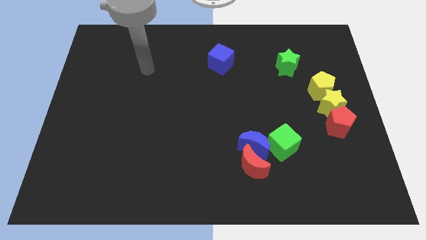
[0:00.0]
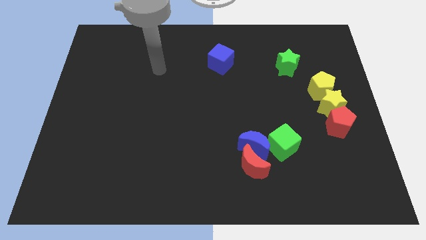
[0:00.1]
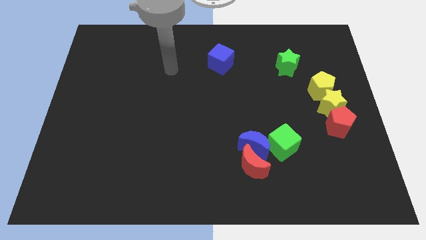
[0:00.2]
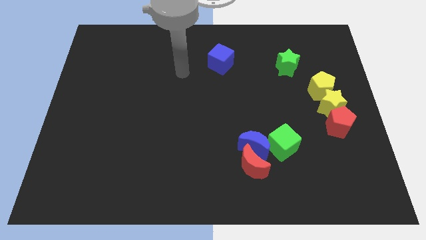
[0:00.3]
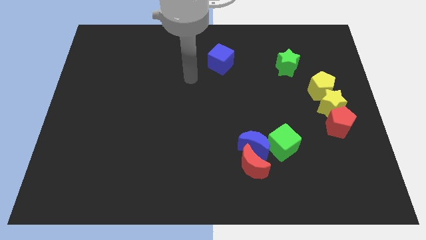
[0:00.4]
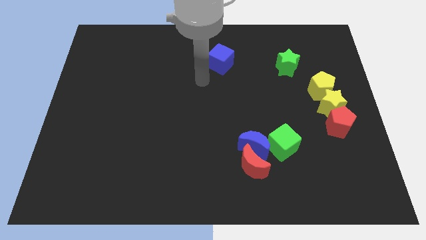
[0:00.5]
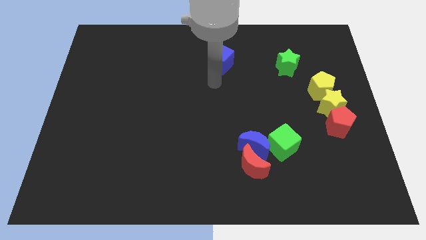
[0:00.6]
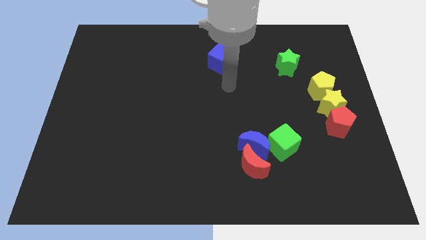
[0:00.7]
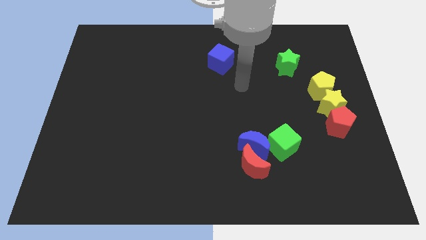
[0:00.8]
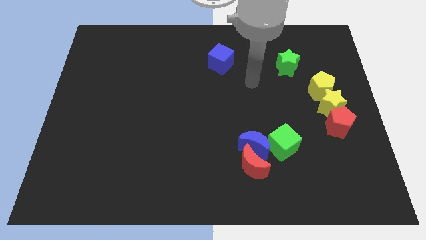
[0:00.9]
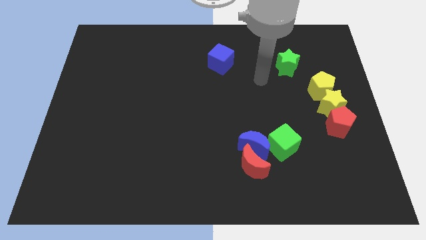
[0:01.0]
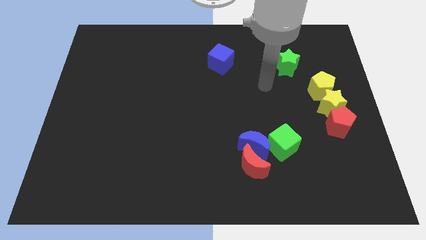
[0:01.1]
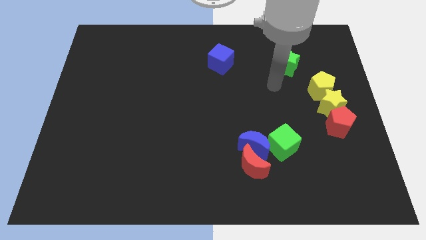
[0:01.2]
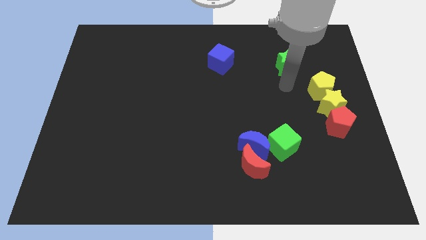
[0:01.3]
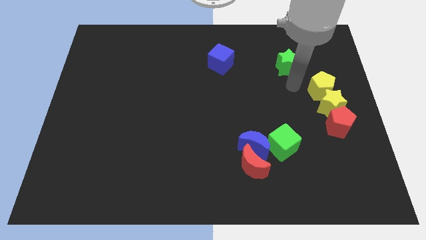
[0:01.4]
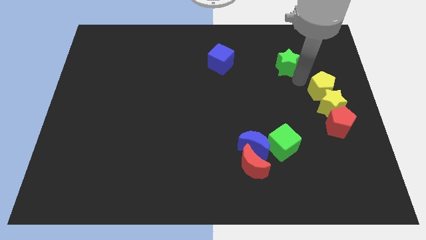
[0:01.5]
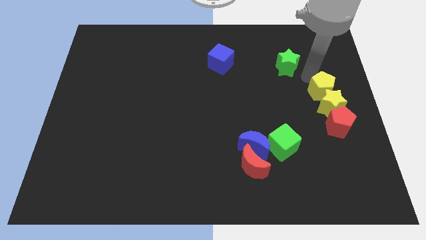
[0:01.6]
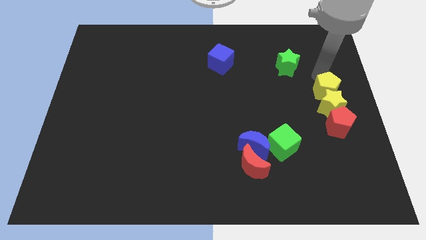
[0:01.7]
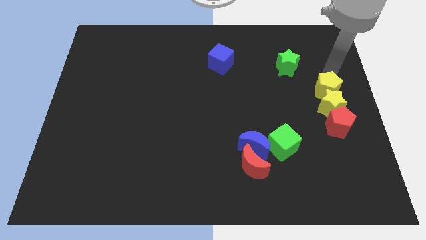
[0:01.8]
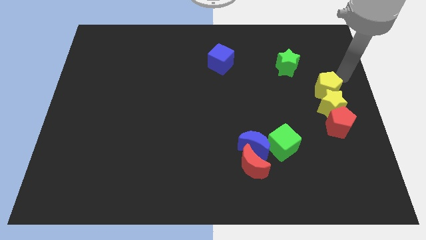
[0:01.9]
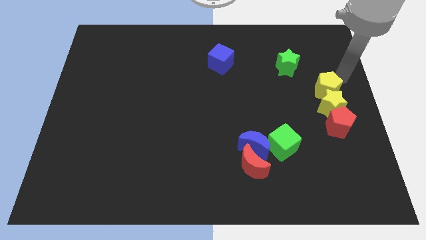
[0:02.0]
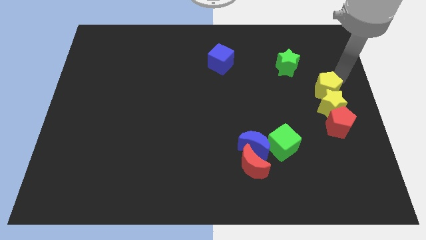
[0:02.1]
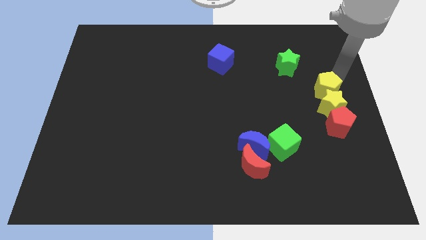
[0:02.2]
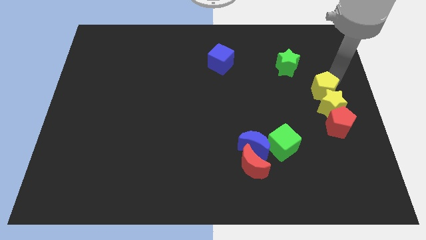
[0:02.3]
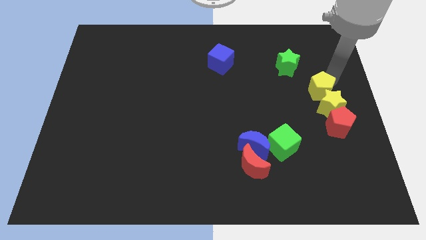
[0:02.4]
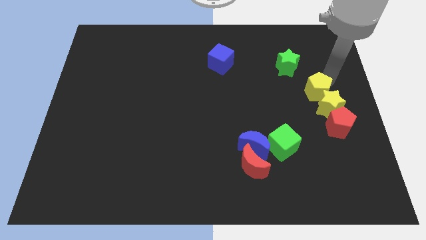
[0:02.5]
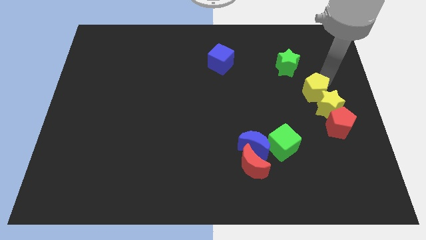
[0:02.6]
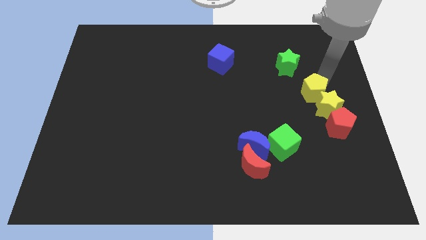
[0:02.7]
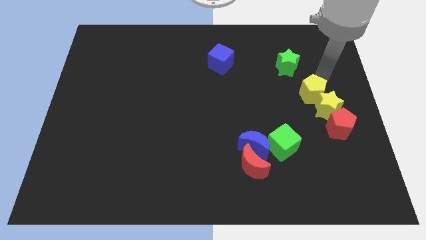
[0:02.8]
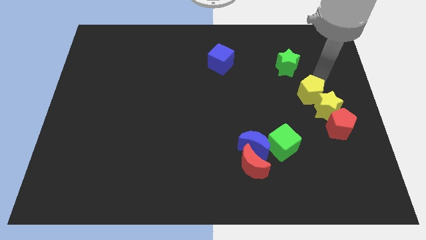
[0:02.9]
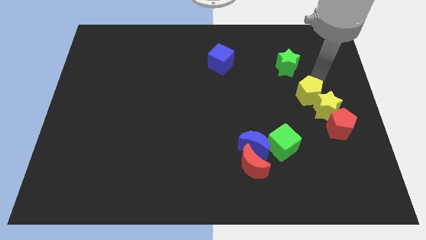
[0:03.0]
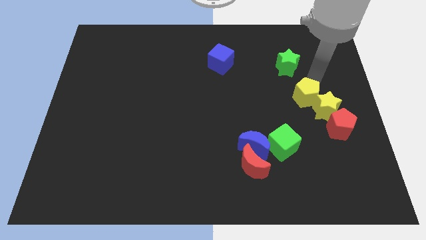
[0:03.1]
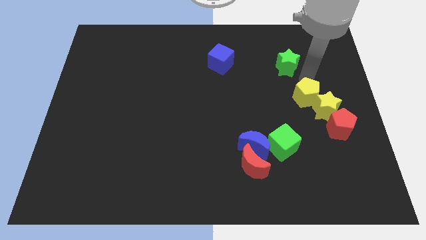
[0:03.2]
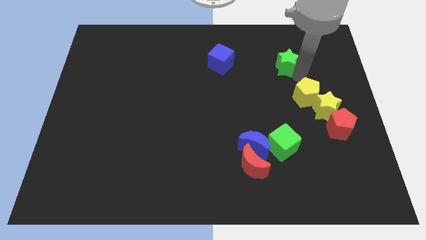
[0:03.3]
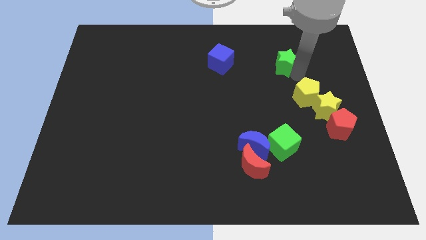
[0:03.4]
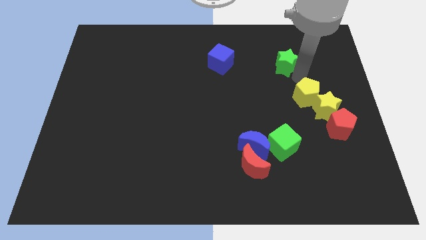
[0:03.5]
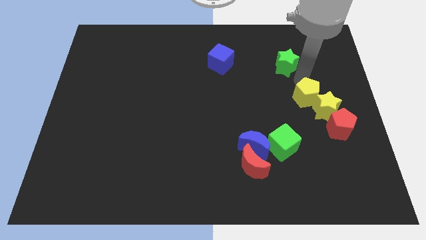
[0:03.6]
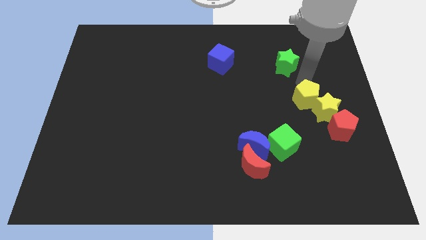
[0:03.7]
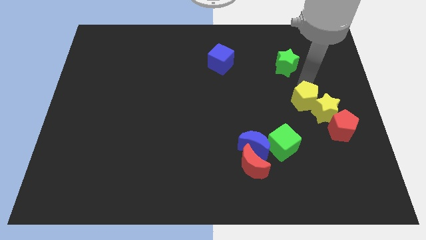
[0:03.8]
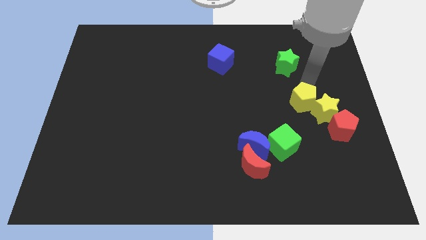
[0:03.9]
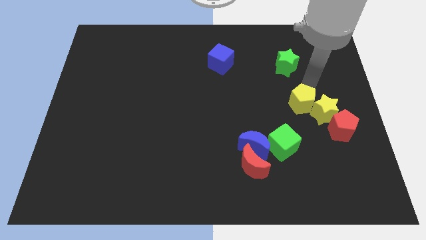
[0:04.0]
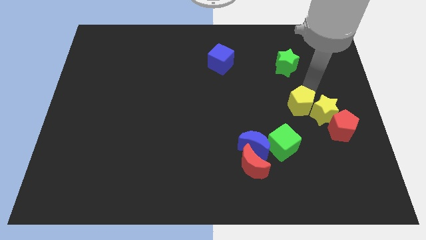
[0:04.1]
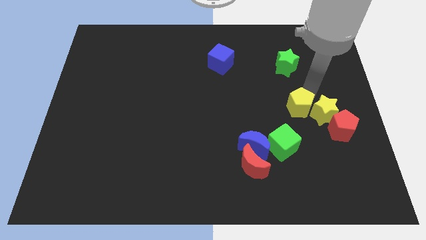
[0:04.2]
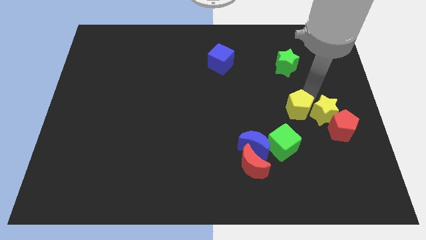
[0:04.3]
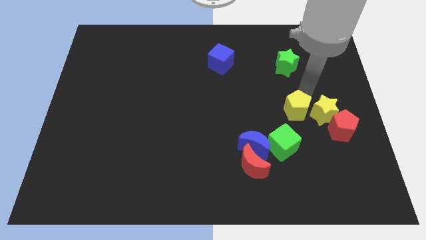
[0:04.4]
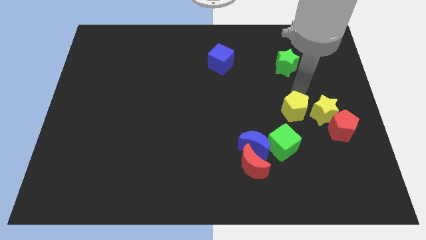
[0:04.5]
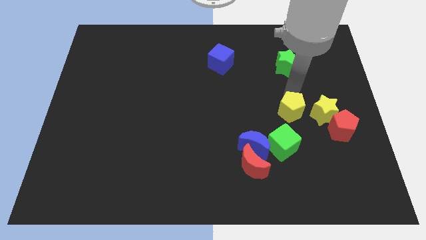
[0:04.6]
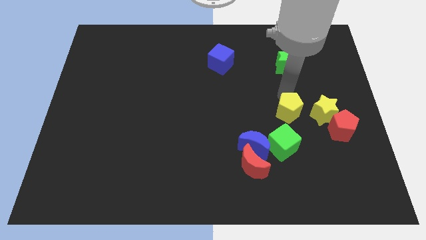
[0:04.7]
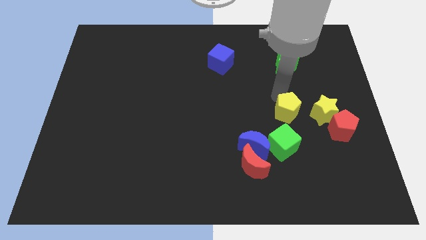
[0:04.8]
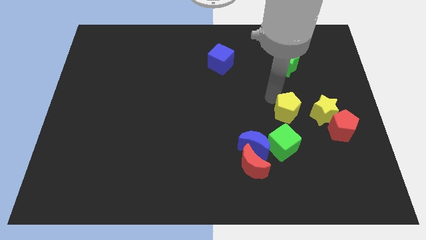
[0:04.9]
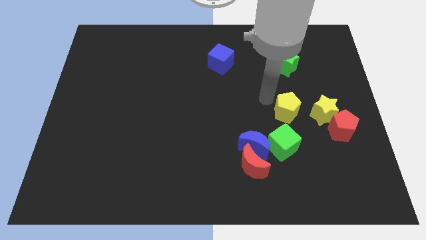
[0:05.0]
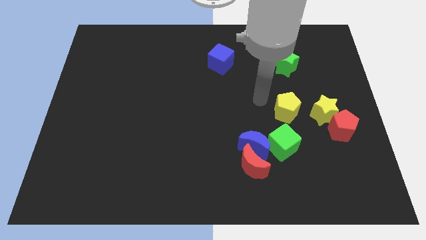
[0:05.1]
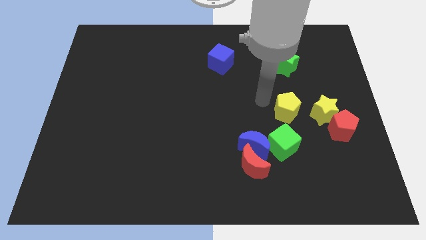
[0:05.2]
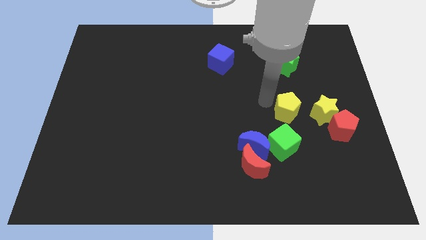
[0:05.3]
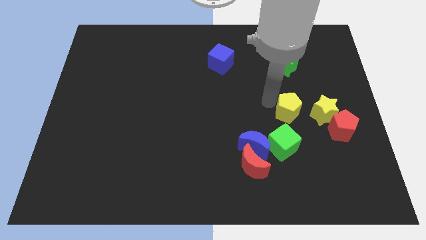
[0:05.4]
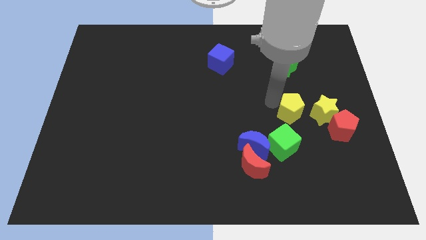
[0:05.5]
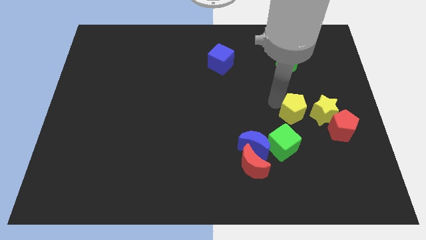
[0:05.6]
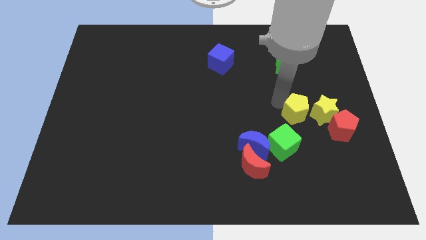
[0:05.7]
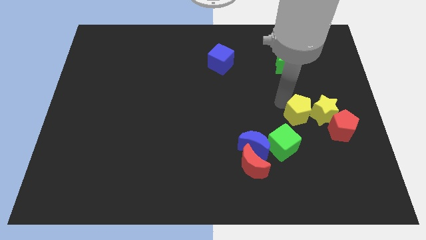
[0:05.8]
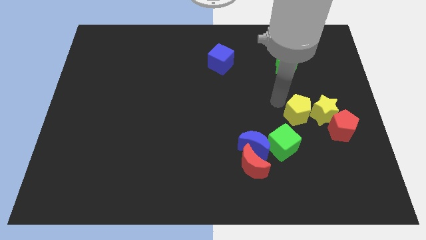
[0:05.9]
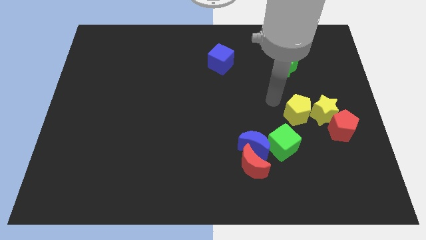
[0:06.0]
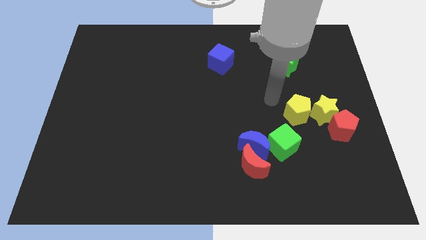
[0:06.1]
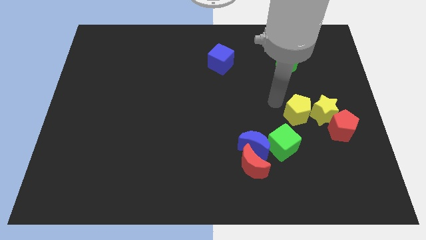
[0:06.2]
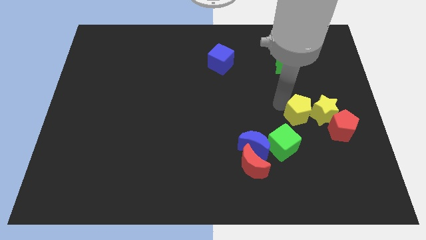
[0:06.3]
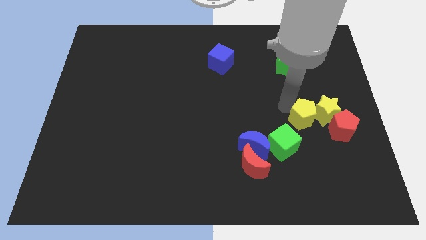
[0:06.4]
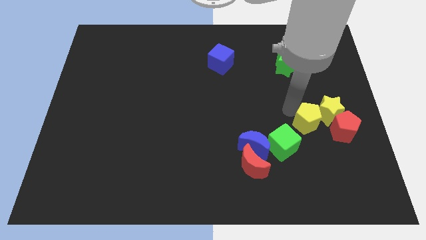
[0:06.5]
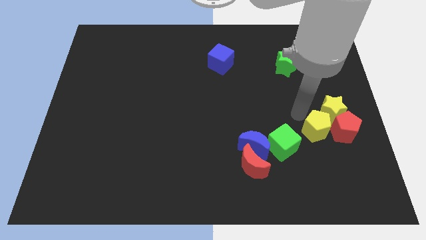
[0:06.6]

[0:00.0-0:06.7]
move the yellow pentagon to the bottom left side of the red pentagon
